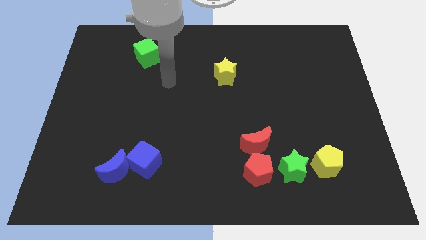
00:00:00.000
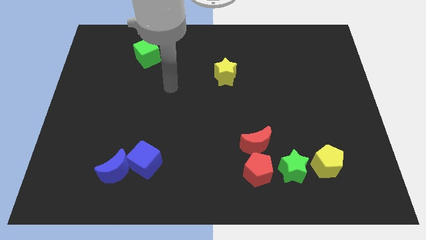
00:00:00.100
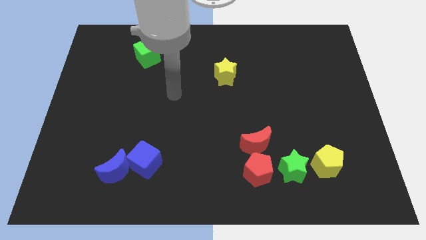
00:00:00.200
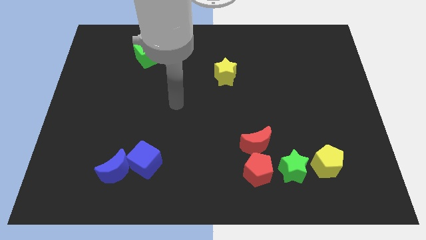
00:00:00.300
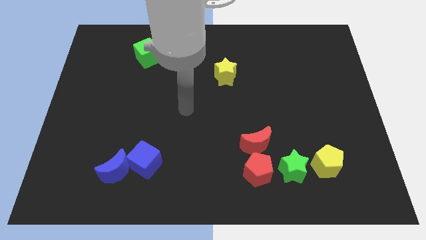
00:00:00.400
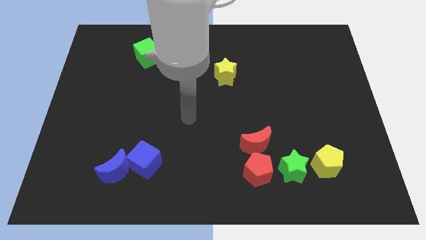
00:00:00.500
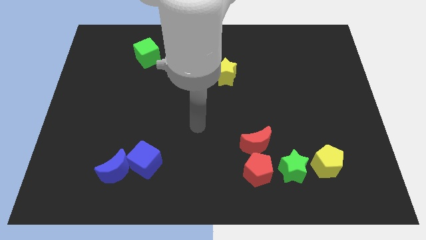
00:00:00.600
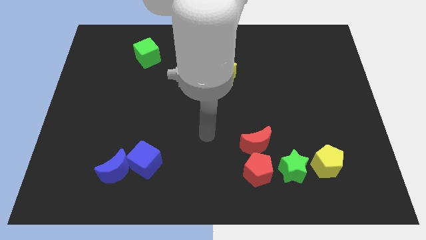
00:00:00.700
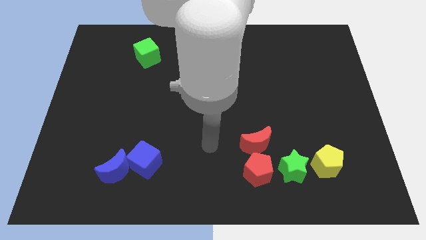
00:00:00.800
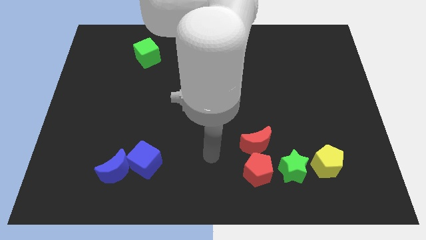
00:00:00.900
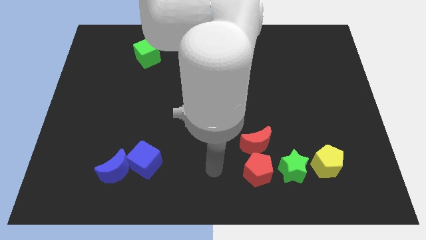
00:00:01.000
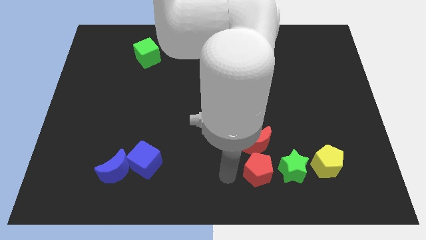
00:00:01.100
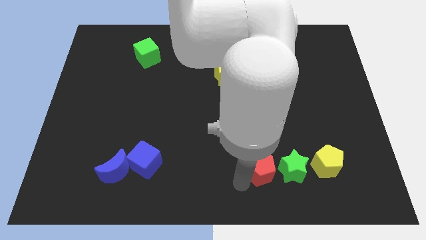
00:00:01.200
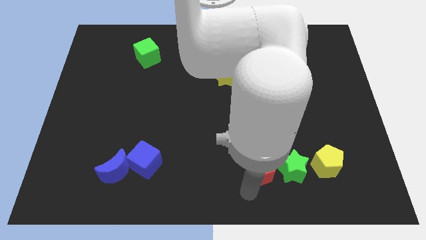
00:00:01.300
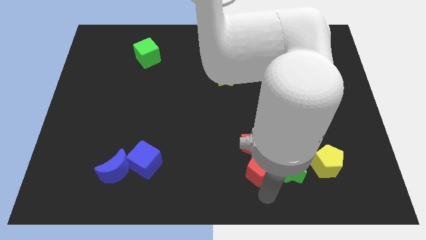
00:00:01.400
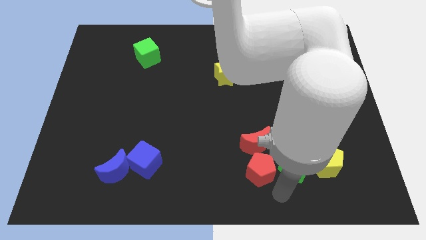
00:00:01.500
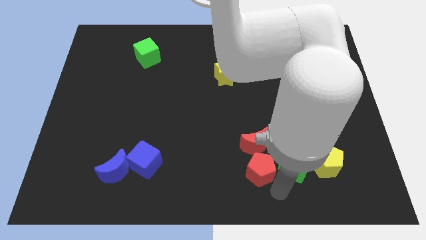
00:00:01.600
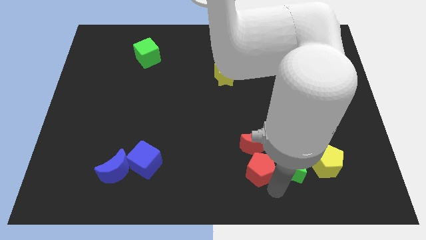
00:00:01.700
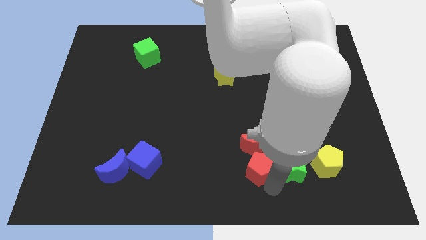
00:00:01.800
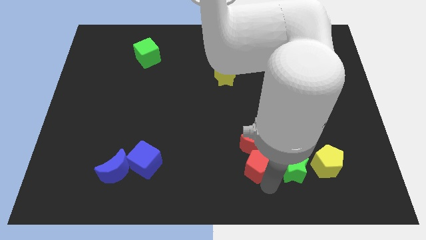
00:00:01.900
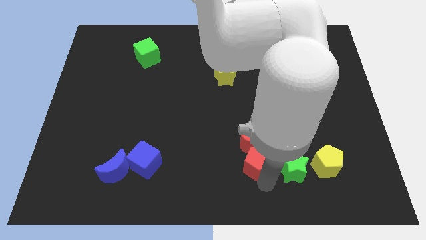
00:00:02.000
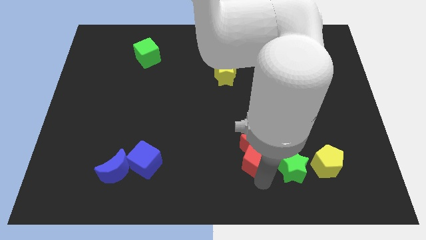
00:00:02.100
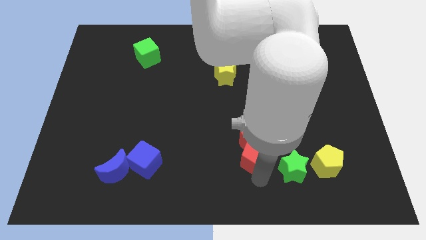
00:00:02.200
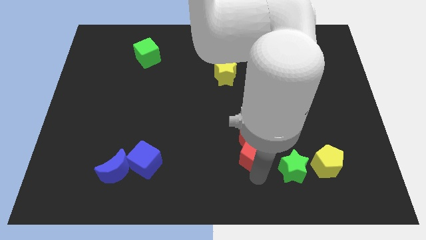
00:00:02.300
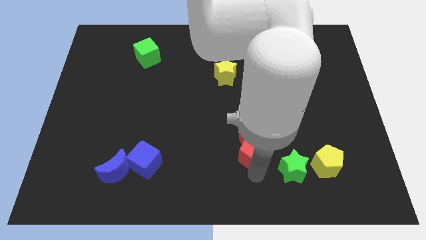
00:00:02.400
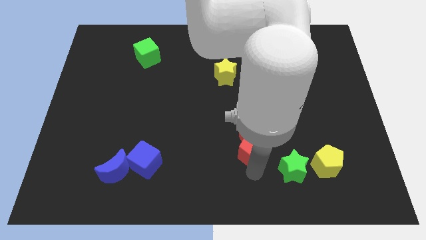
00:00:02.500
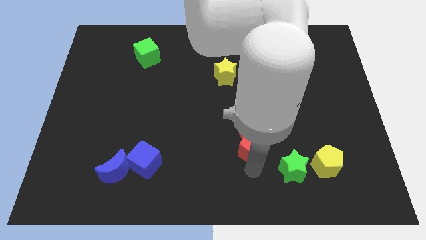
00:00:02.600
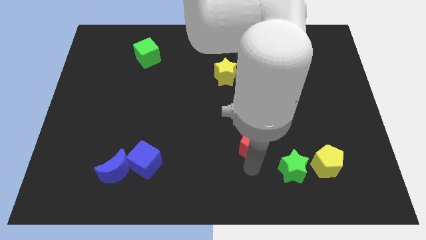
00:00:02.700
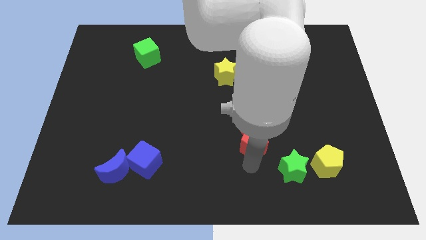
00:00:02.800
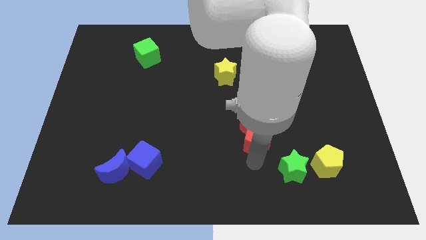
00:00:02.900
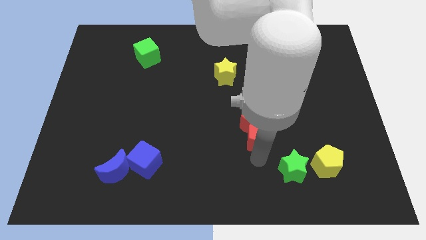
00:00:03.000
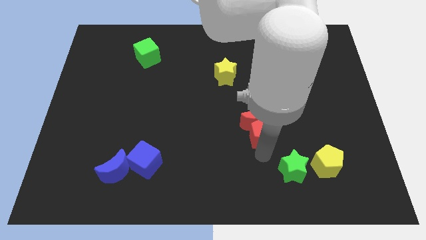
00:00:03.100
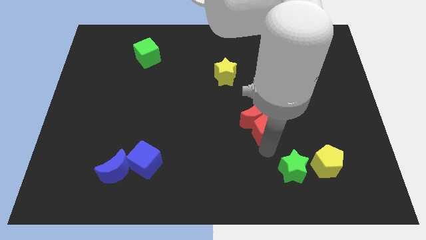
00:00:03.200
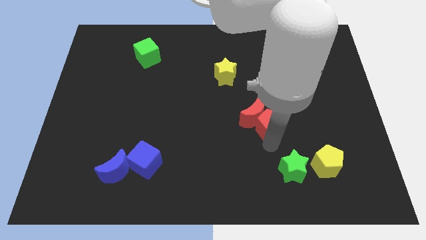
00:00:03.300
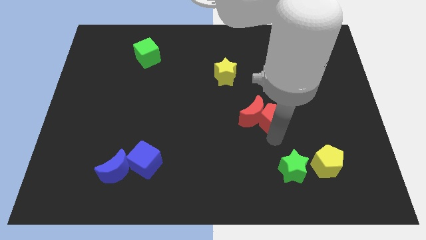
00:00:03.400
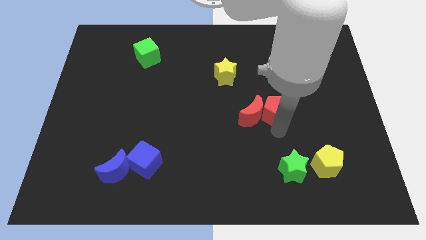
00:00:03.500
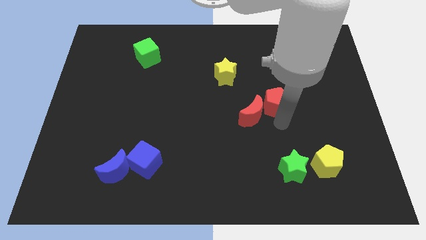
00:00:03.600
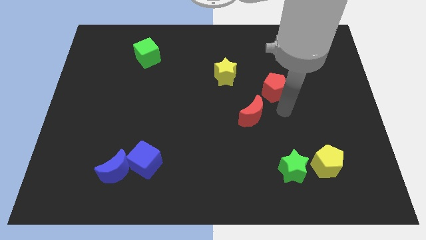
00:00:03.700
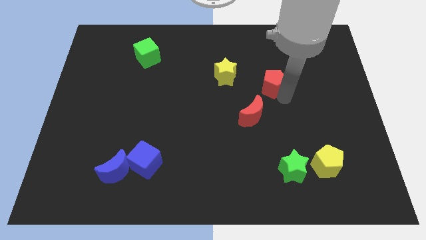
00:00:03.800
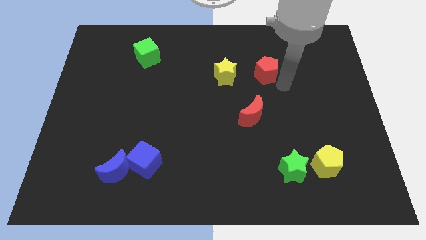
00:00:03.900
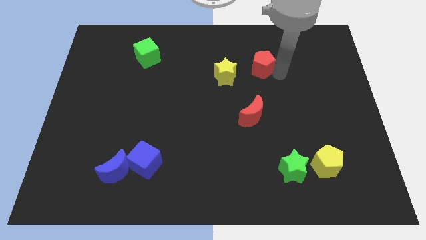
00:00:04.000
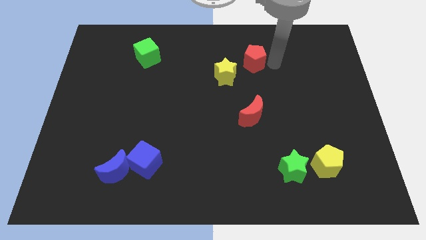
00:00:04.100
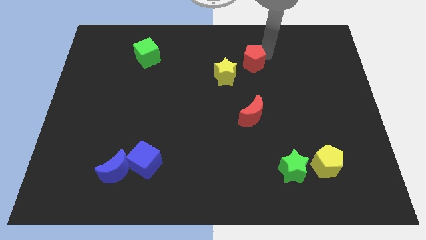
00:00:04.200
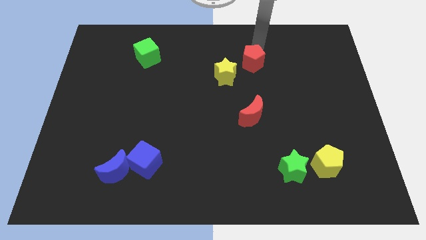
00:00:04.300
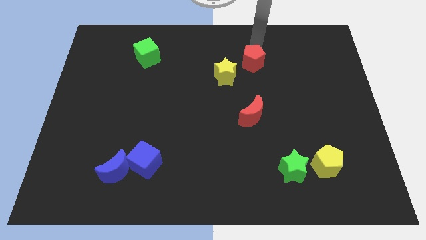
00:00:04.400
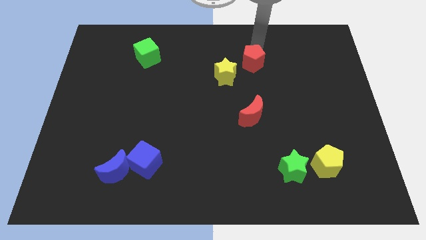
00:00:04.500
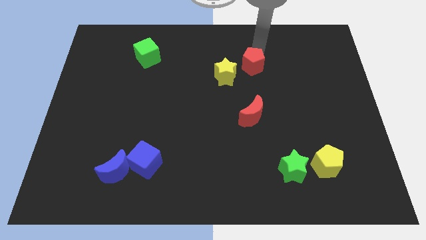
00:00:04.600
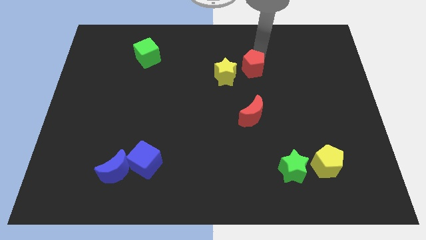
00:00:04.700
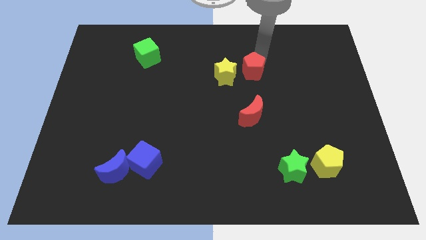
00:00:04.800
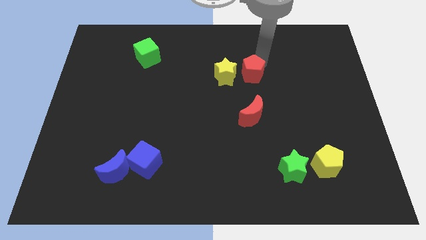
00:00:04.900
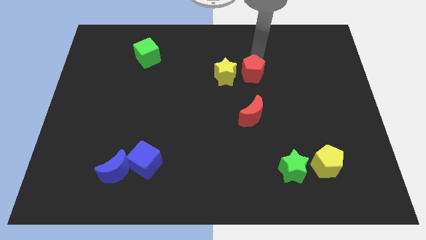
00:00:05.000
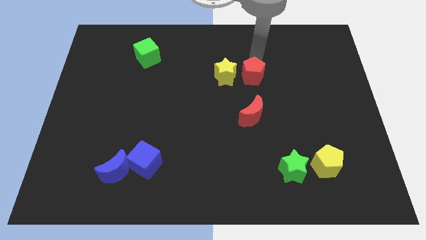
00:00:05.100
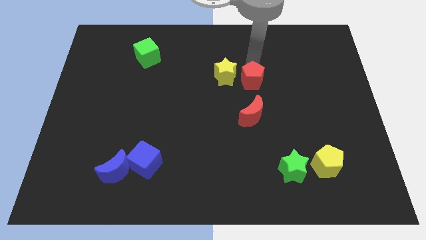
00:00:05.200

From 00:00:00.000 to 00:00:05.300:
move the red pentagon to the middle

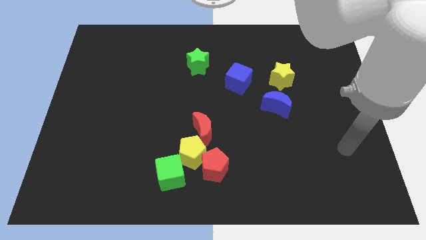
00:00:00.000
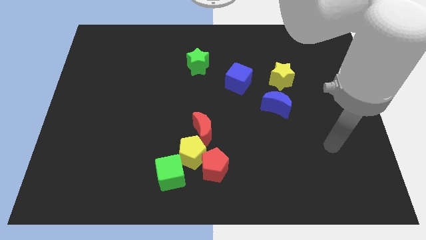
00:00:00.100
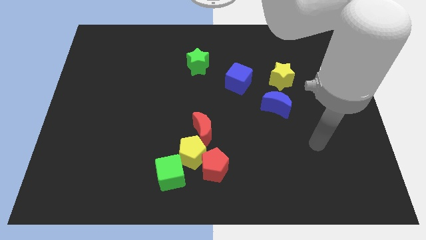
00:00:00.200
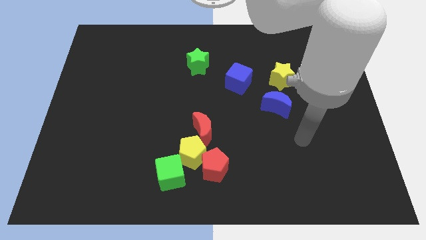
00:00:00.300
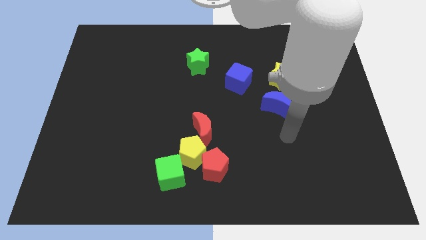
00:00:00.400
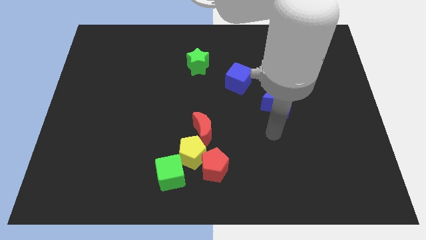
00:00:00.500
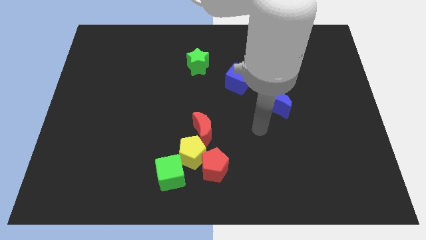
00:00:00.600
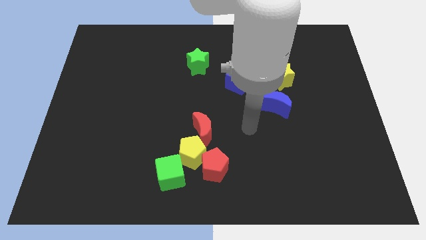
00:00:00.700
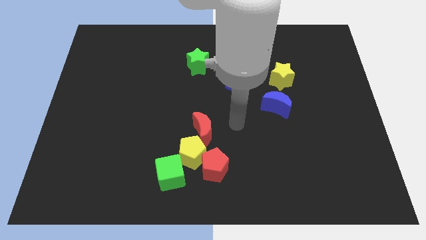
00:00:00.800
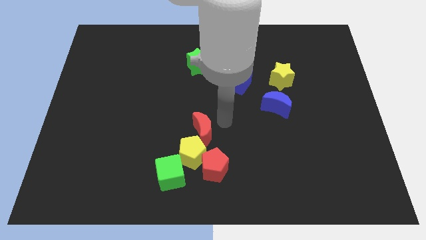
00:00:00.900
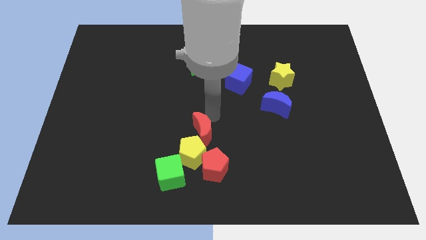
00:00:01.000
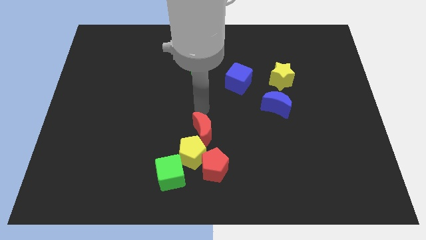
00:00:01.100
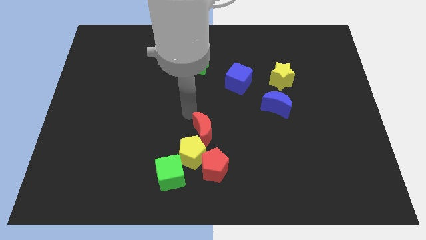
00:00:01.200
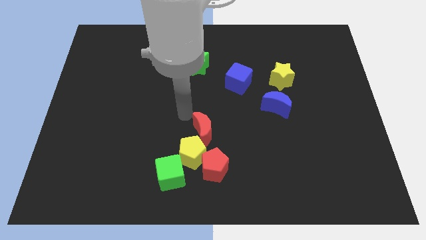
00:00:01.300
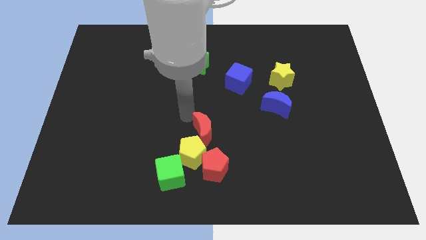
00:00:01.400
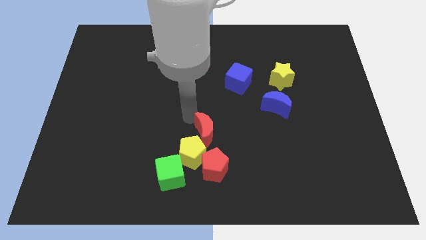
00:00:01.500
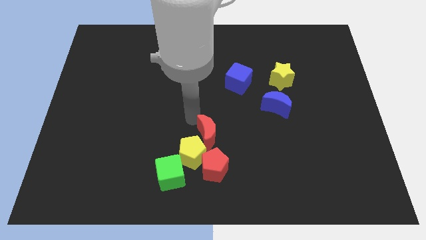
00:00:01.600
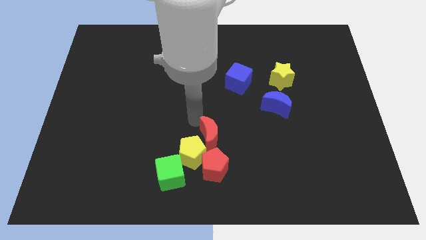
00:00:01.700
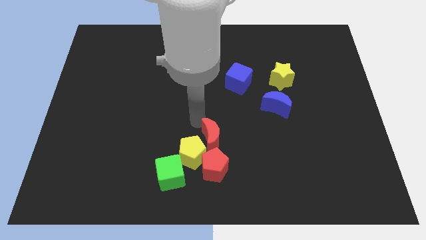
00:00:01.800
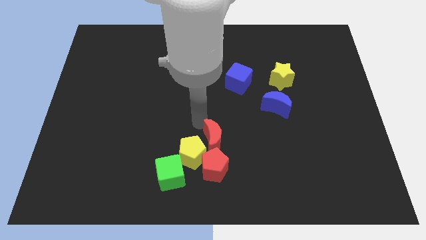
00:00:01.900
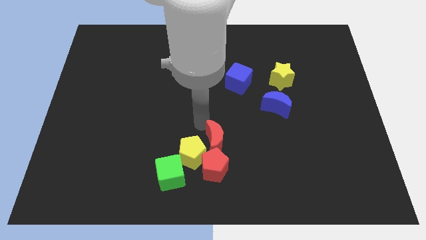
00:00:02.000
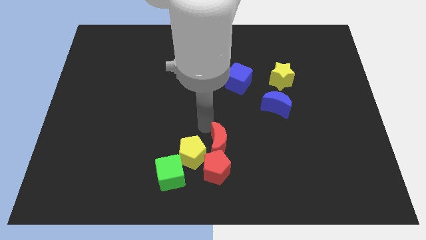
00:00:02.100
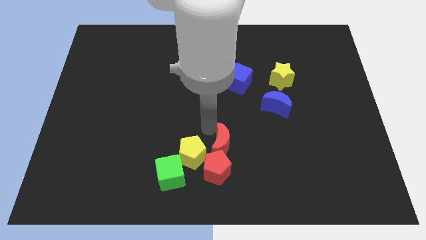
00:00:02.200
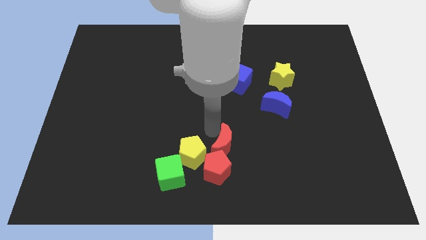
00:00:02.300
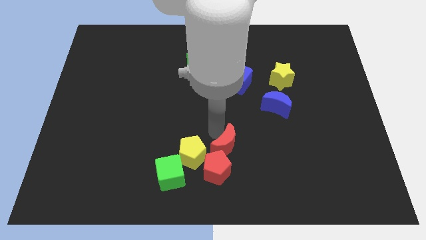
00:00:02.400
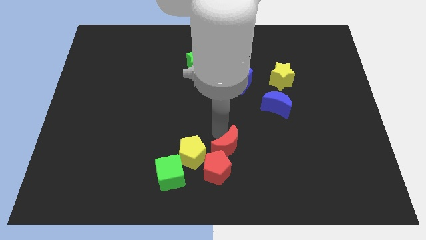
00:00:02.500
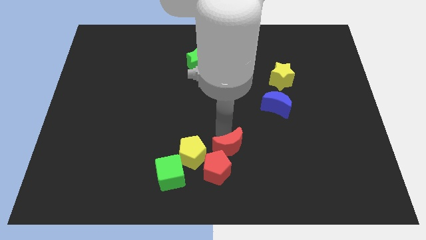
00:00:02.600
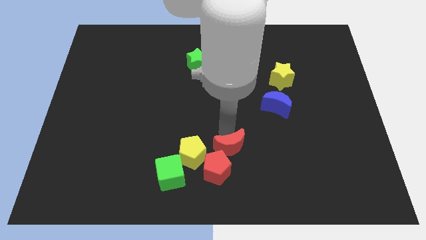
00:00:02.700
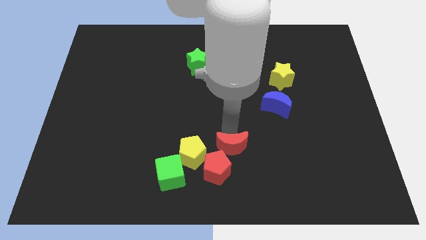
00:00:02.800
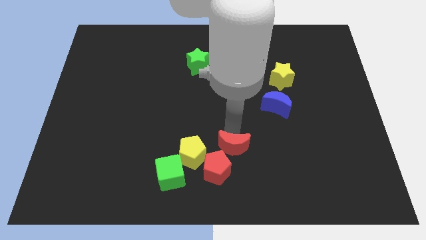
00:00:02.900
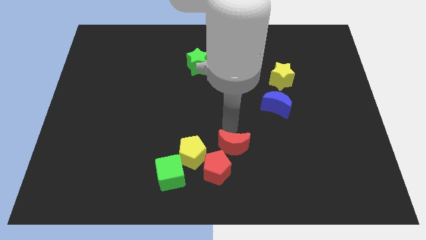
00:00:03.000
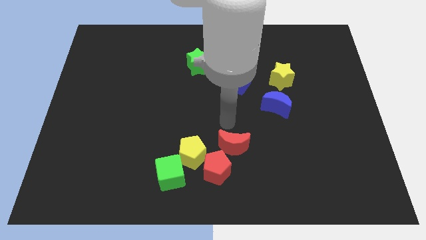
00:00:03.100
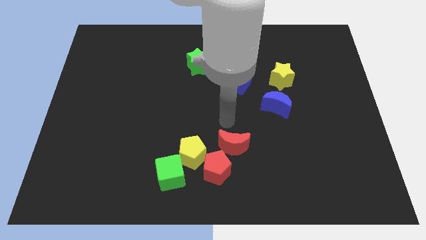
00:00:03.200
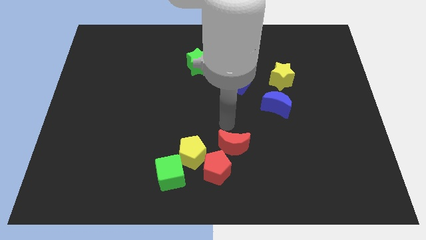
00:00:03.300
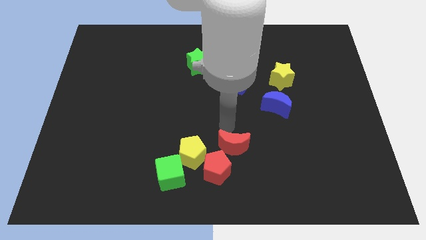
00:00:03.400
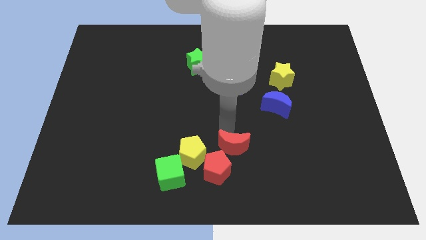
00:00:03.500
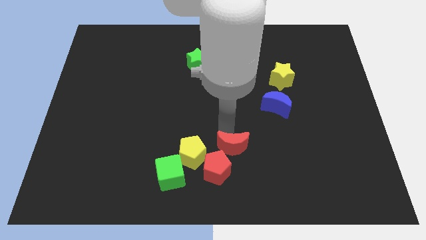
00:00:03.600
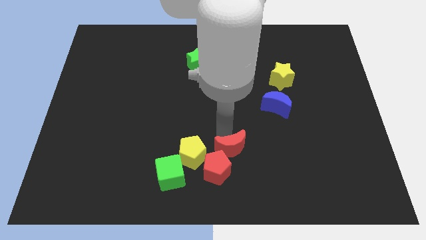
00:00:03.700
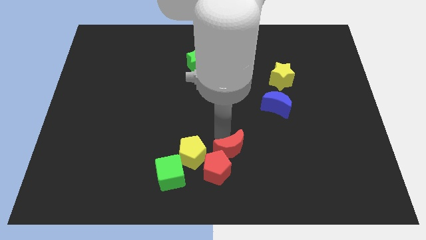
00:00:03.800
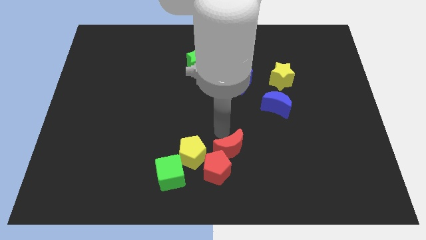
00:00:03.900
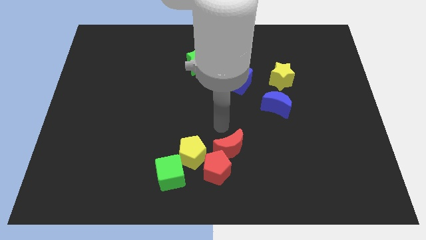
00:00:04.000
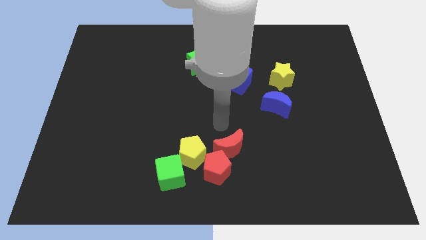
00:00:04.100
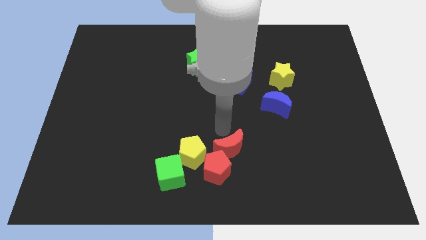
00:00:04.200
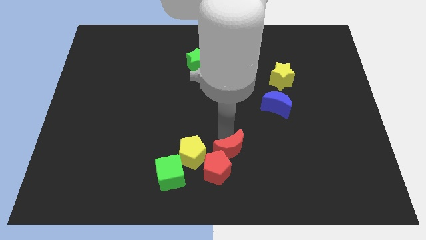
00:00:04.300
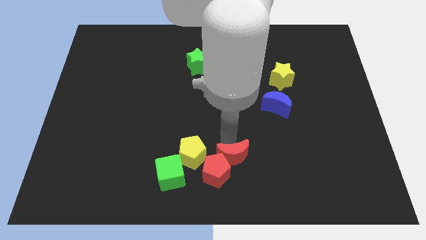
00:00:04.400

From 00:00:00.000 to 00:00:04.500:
move the red moon to the bottom side
